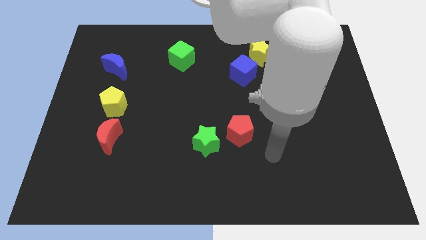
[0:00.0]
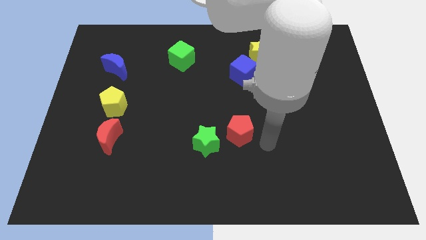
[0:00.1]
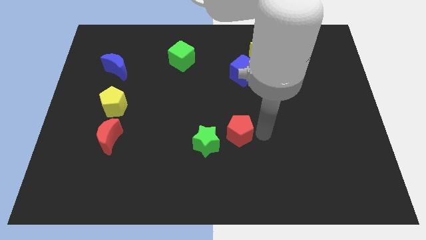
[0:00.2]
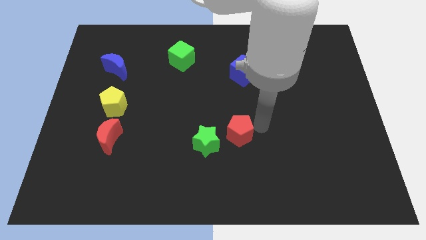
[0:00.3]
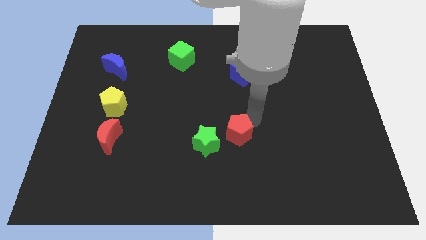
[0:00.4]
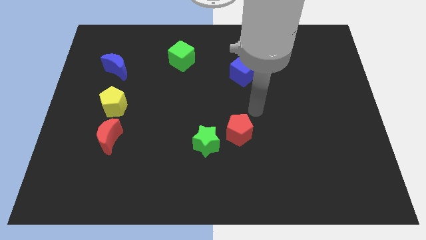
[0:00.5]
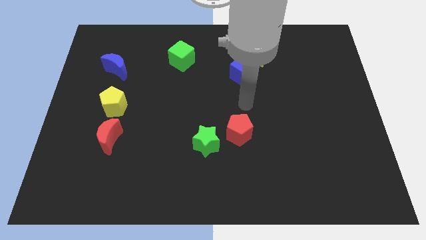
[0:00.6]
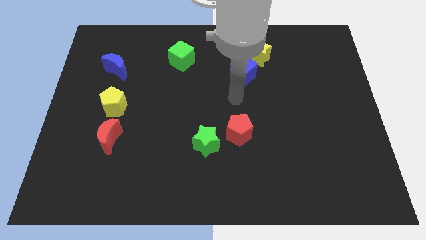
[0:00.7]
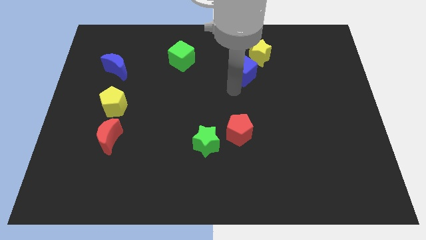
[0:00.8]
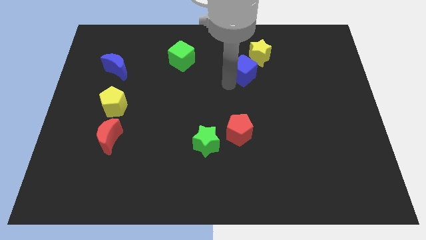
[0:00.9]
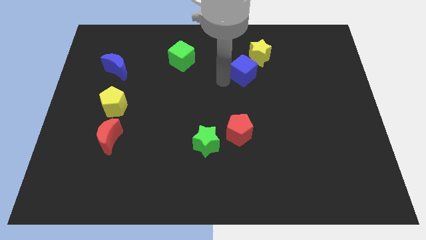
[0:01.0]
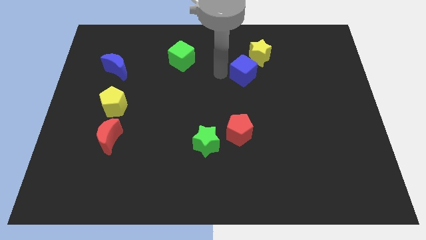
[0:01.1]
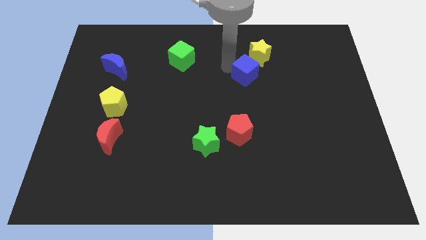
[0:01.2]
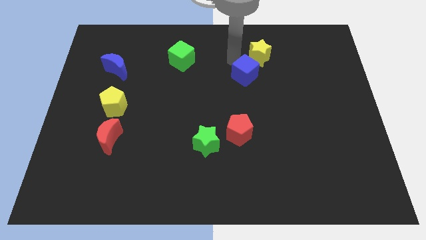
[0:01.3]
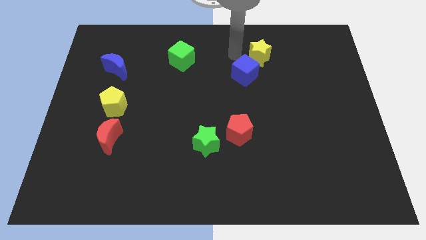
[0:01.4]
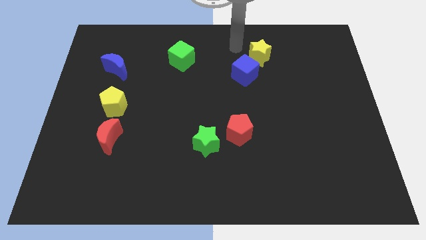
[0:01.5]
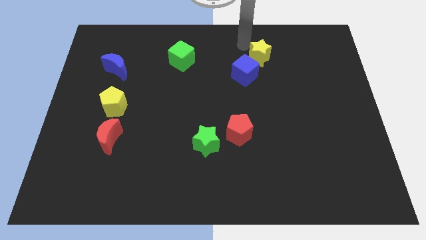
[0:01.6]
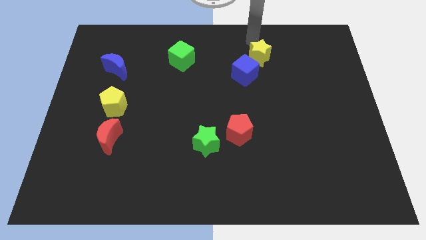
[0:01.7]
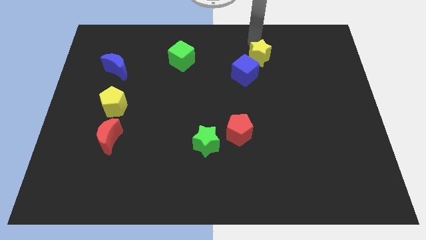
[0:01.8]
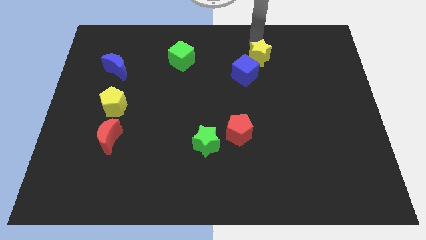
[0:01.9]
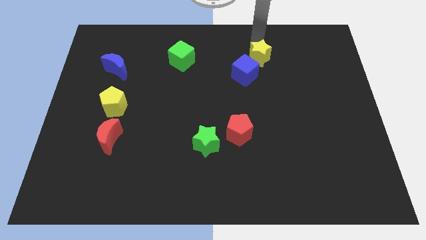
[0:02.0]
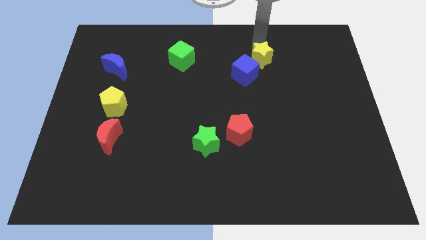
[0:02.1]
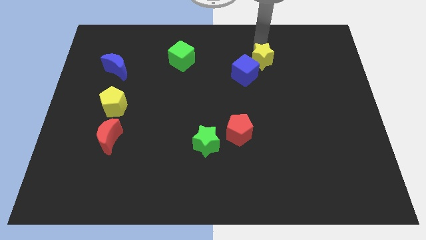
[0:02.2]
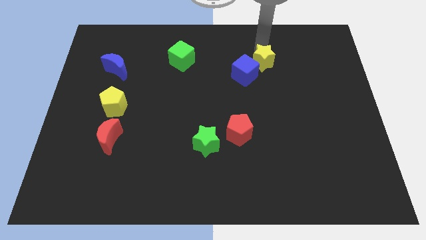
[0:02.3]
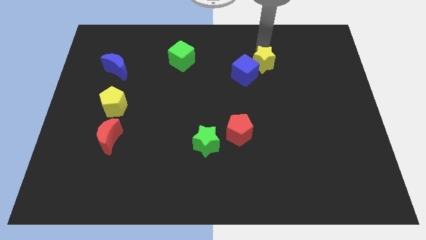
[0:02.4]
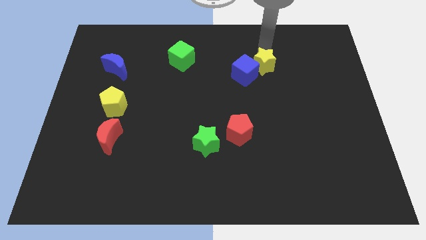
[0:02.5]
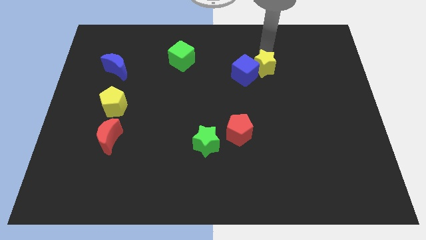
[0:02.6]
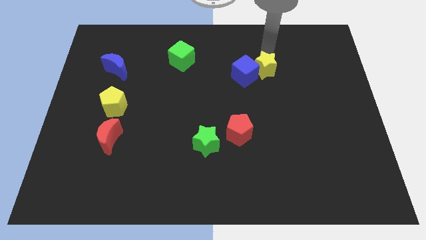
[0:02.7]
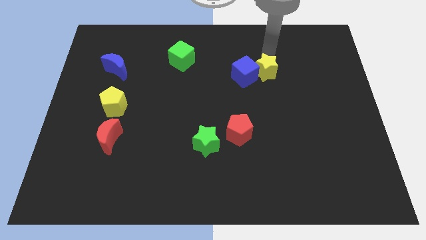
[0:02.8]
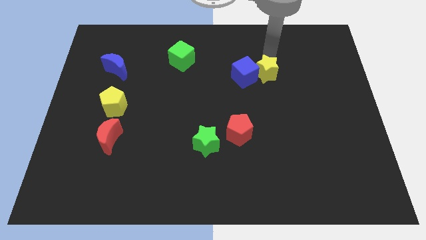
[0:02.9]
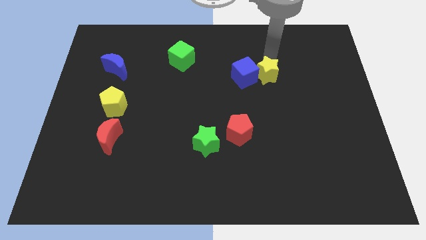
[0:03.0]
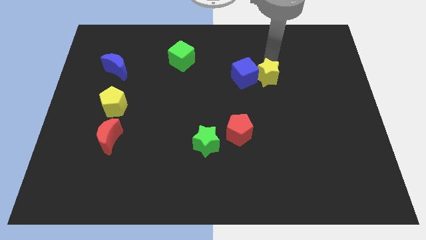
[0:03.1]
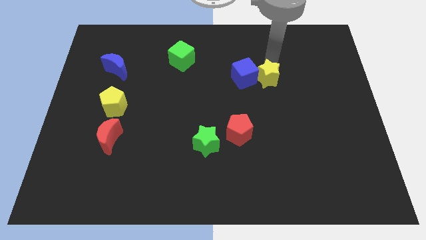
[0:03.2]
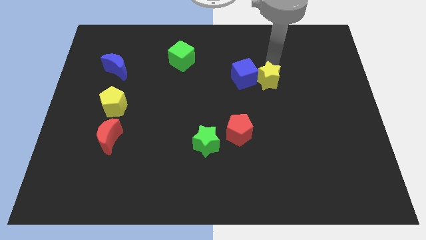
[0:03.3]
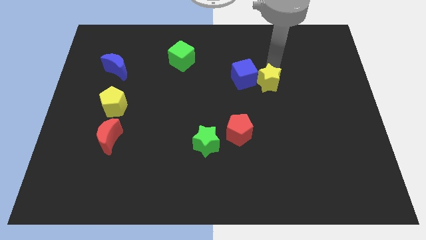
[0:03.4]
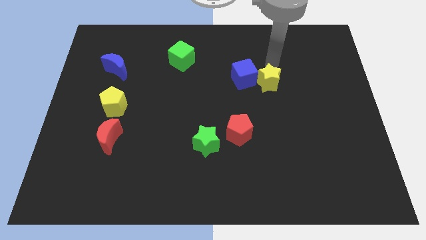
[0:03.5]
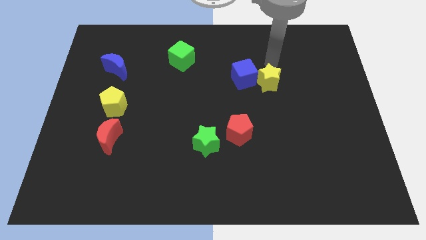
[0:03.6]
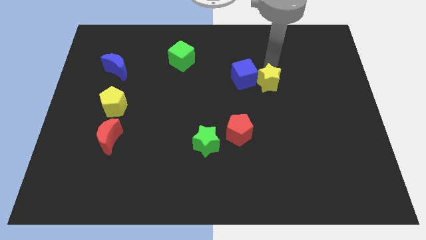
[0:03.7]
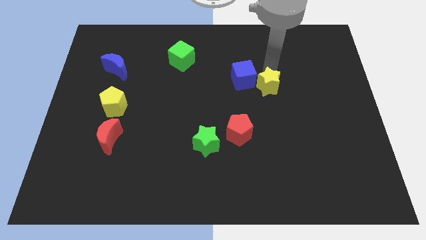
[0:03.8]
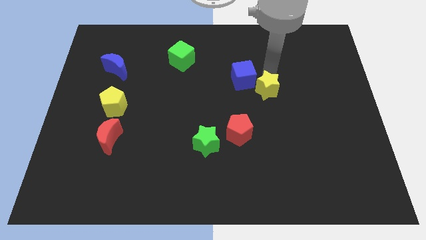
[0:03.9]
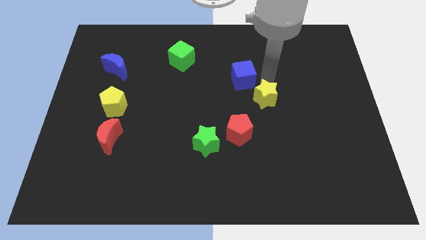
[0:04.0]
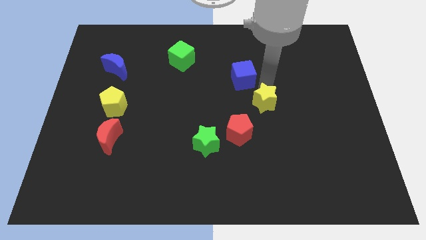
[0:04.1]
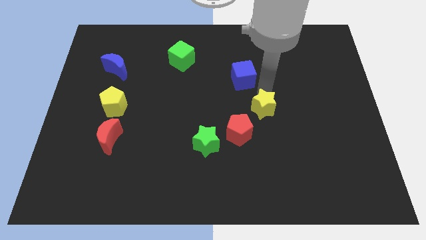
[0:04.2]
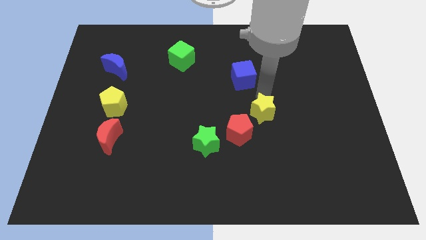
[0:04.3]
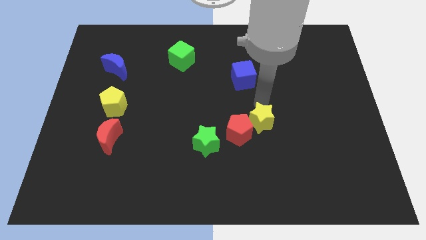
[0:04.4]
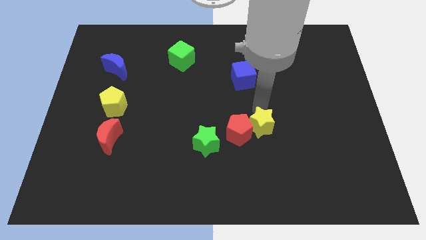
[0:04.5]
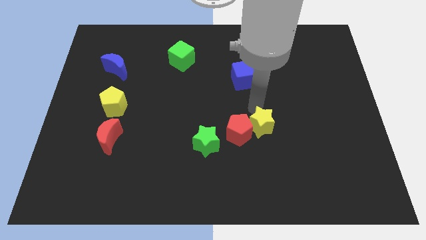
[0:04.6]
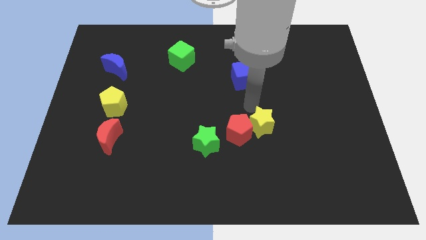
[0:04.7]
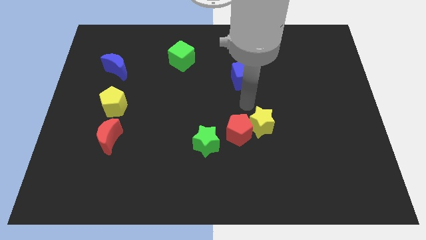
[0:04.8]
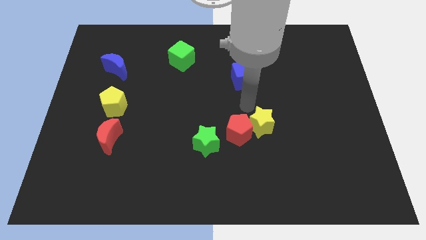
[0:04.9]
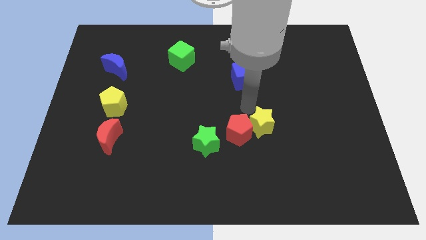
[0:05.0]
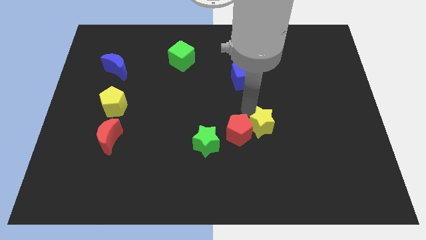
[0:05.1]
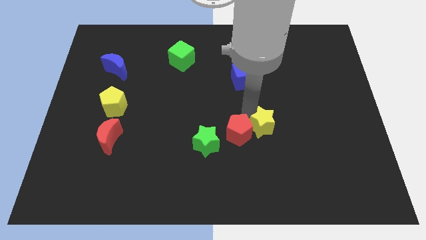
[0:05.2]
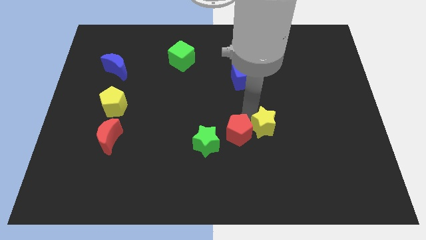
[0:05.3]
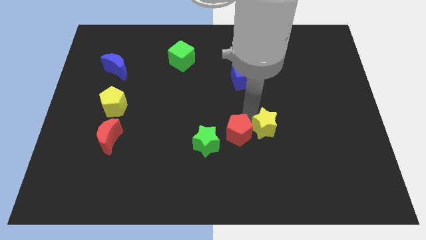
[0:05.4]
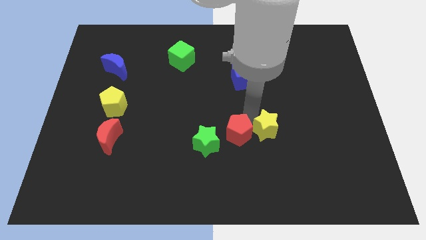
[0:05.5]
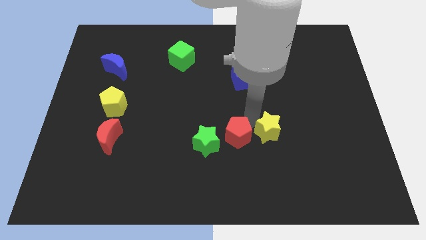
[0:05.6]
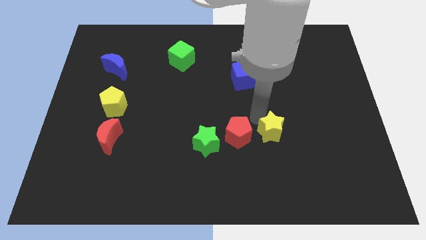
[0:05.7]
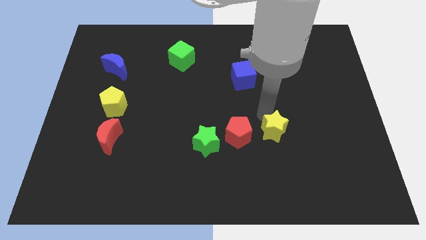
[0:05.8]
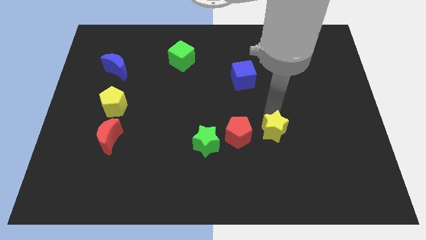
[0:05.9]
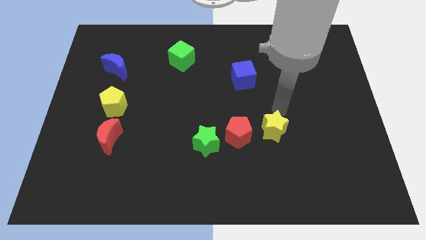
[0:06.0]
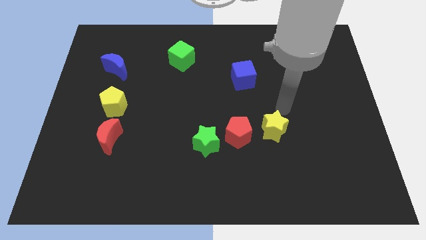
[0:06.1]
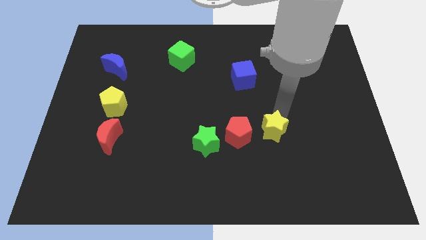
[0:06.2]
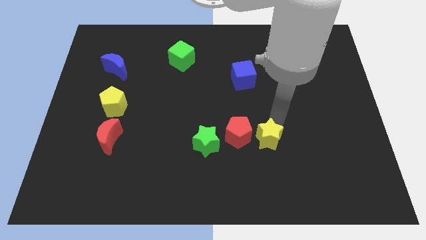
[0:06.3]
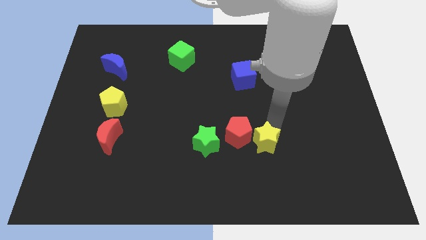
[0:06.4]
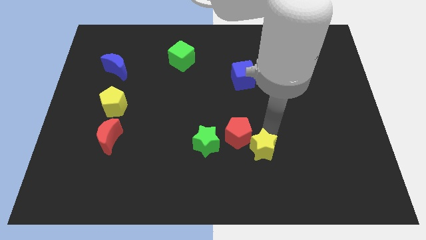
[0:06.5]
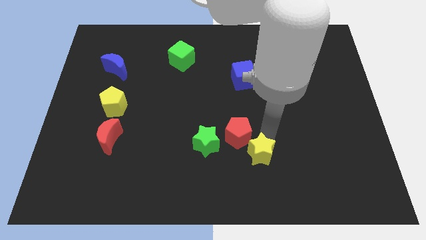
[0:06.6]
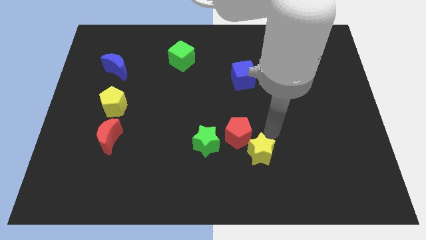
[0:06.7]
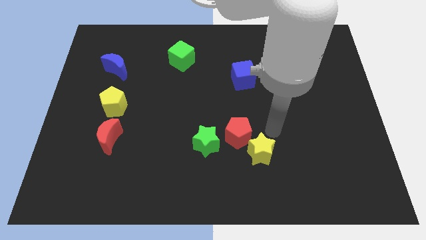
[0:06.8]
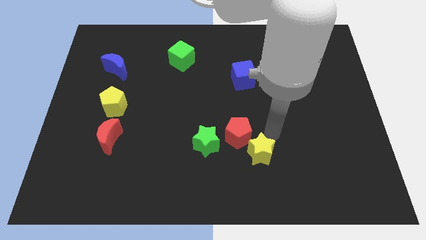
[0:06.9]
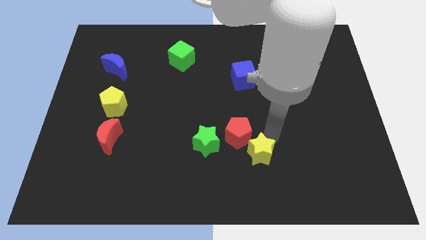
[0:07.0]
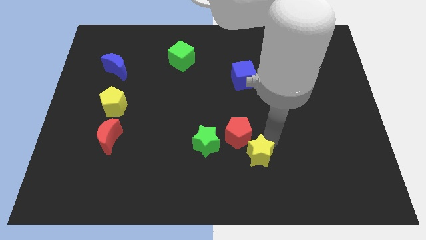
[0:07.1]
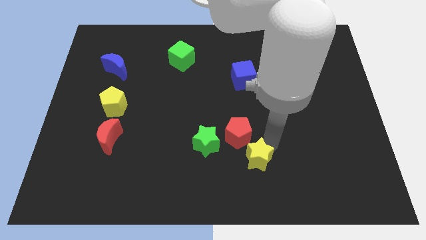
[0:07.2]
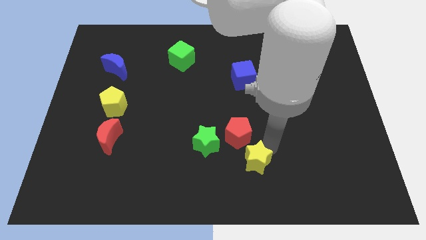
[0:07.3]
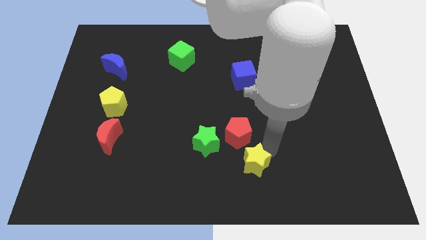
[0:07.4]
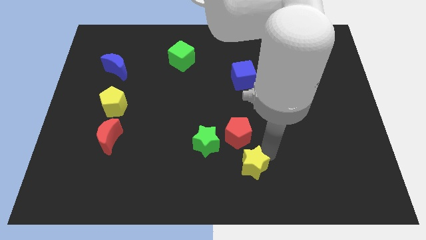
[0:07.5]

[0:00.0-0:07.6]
put the yellow star to the bottom
